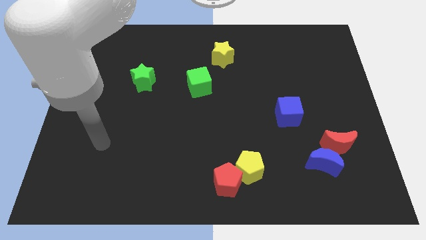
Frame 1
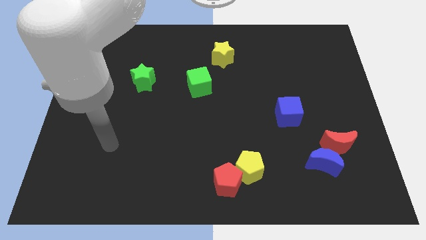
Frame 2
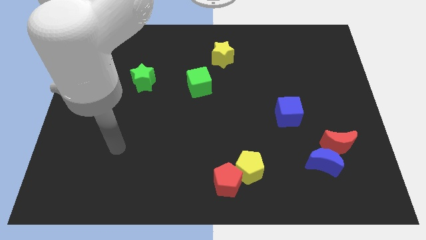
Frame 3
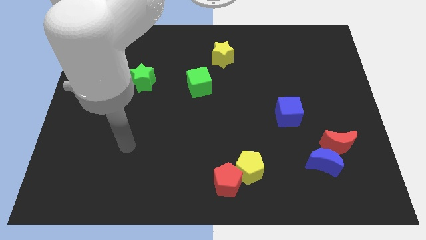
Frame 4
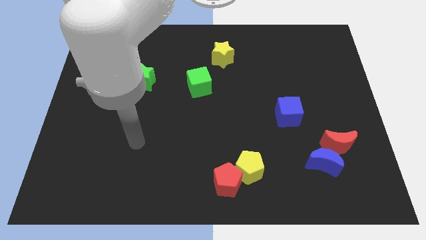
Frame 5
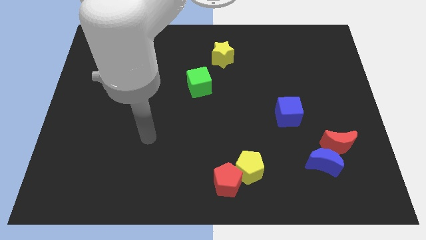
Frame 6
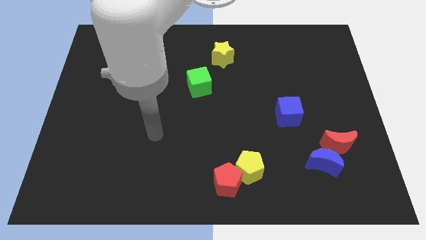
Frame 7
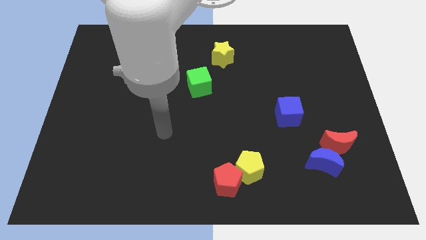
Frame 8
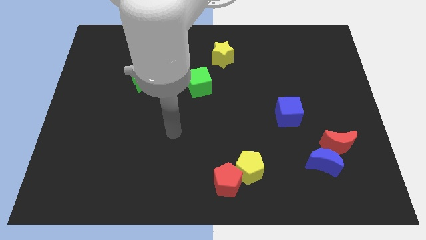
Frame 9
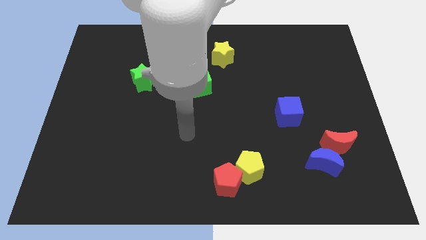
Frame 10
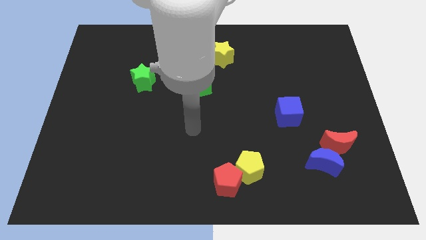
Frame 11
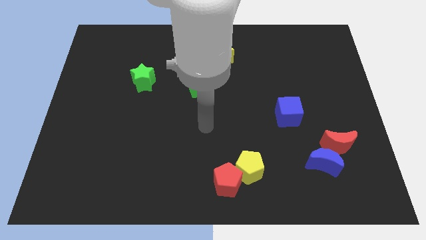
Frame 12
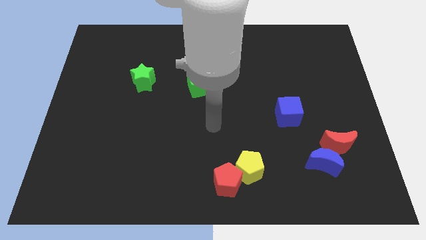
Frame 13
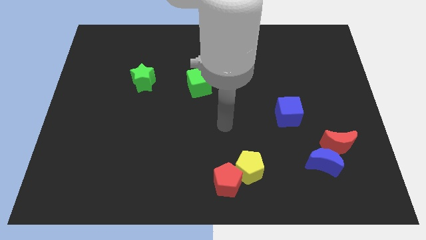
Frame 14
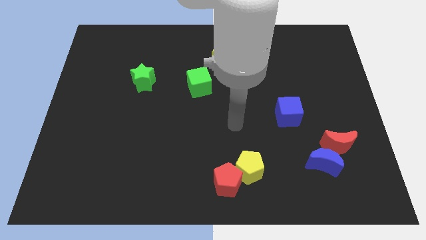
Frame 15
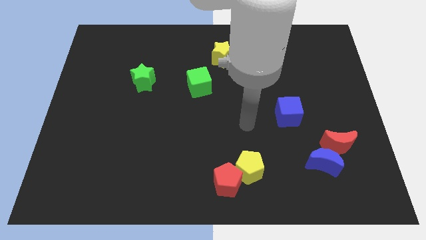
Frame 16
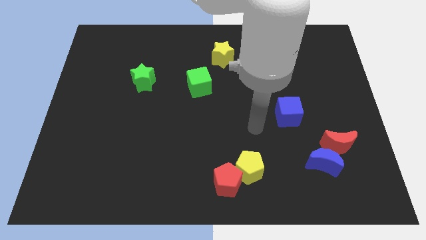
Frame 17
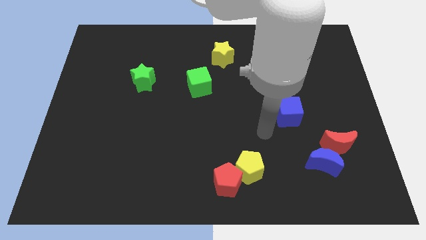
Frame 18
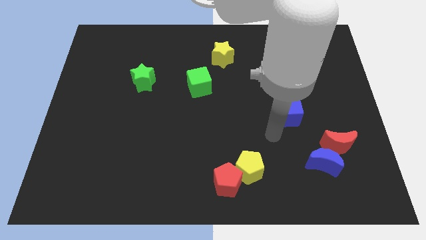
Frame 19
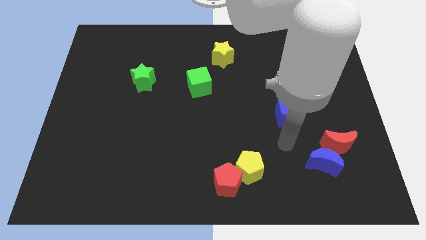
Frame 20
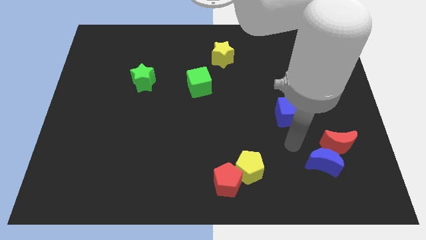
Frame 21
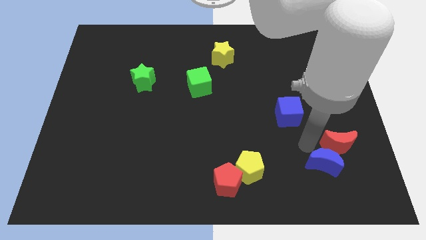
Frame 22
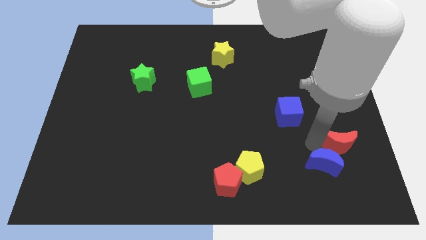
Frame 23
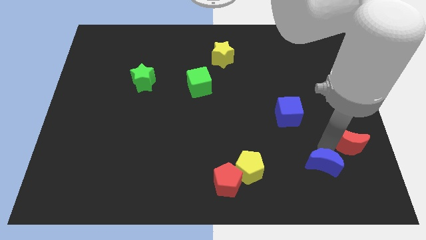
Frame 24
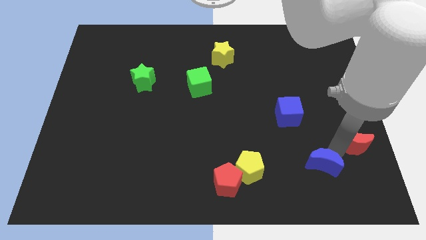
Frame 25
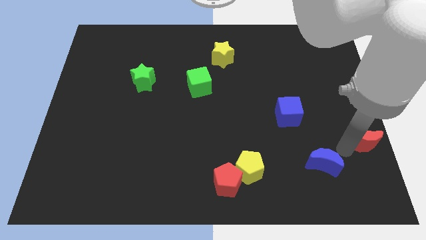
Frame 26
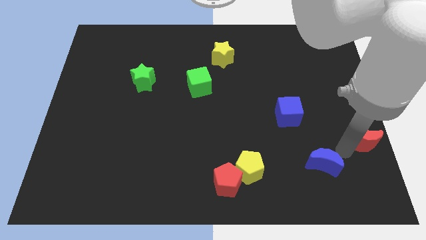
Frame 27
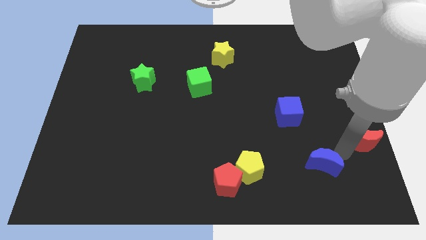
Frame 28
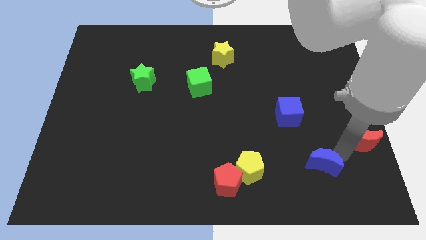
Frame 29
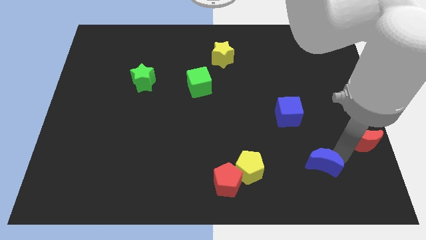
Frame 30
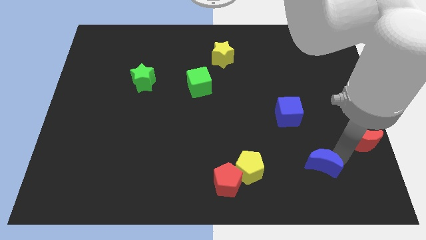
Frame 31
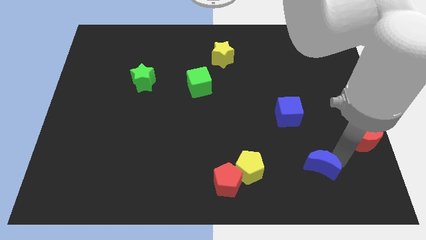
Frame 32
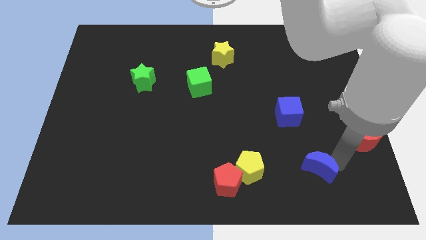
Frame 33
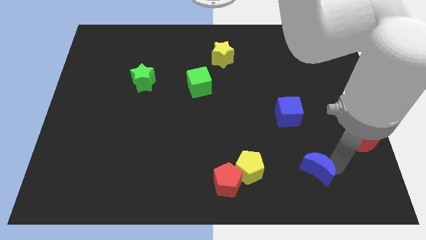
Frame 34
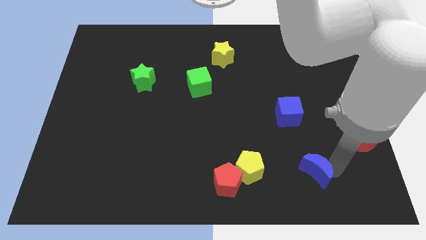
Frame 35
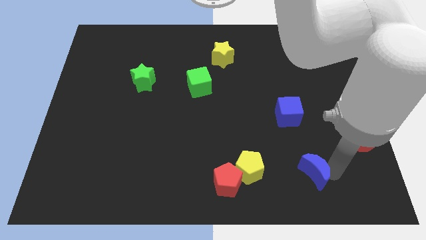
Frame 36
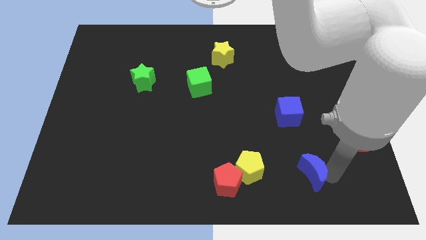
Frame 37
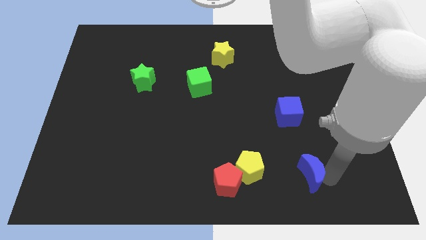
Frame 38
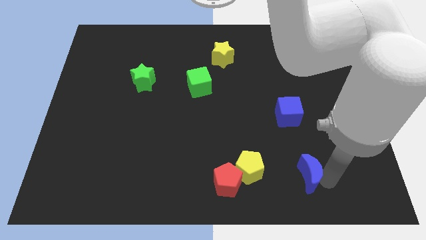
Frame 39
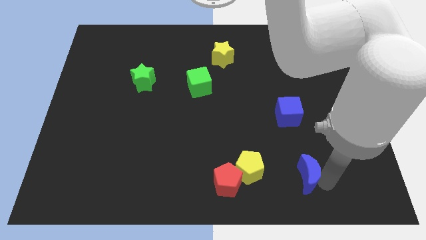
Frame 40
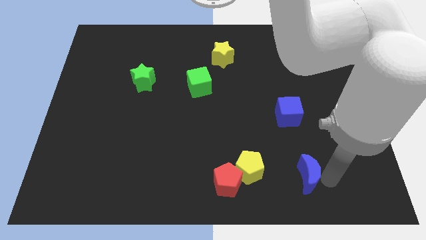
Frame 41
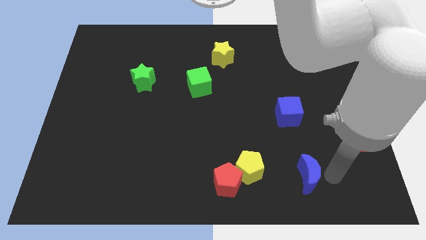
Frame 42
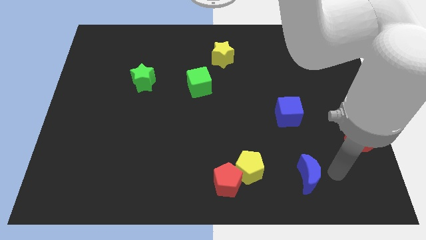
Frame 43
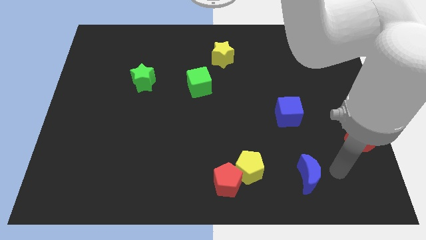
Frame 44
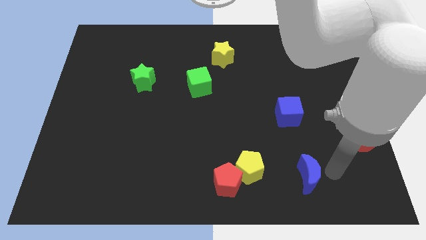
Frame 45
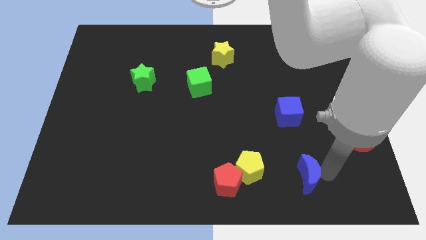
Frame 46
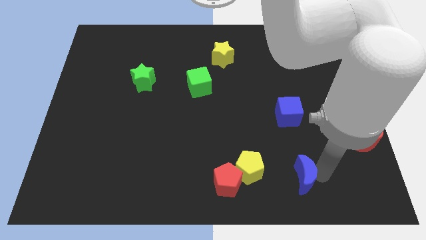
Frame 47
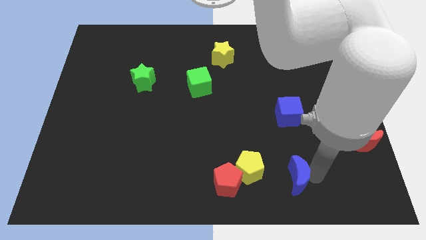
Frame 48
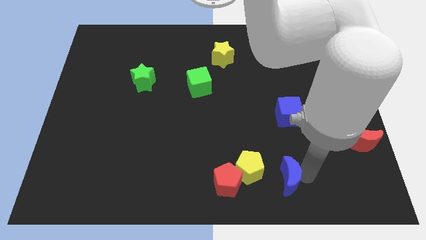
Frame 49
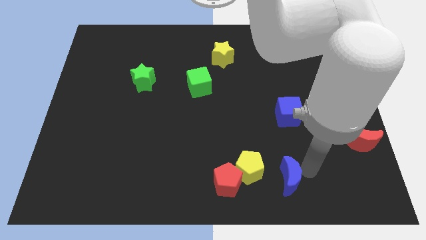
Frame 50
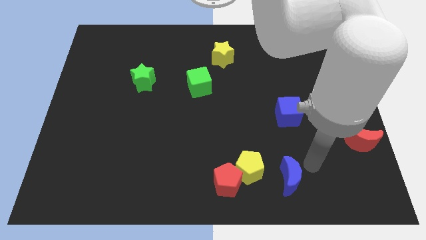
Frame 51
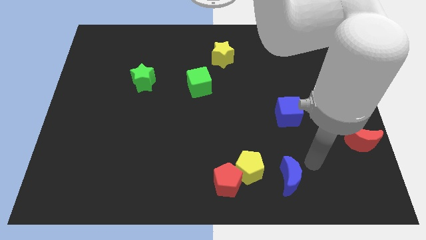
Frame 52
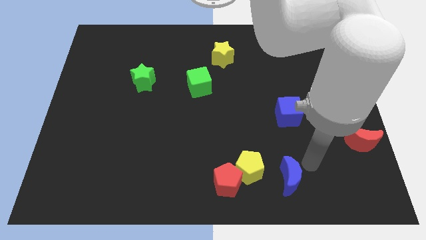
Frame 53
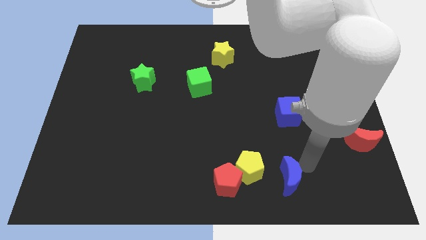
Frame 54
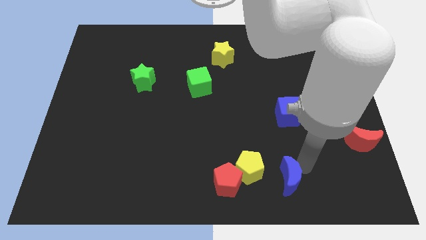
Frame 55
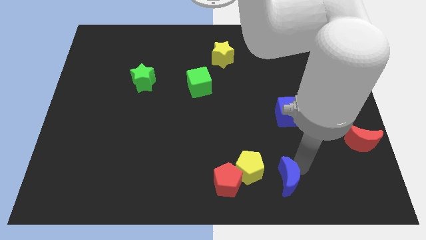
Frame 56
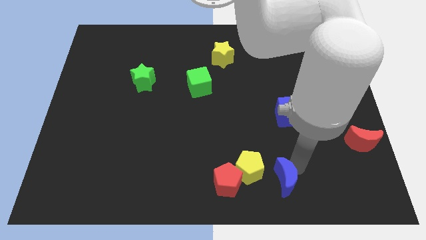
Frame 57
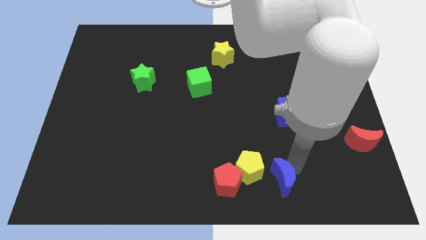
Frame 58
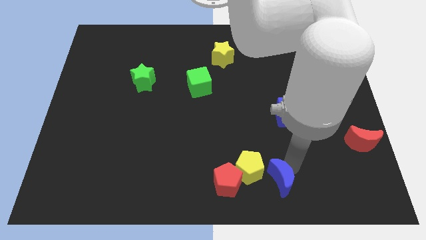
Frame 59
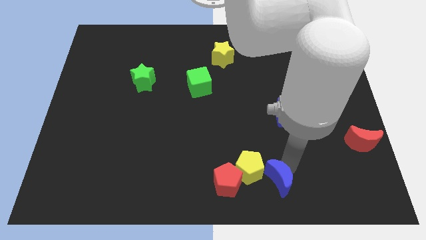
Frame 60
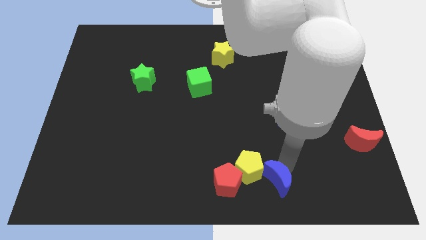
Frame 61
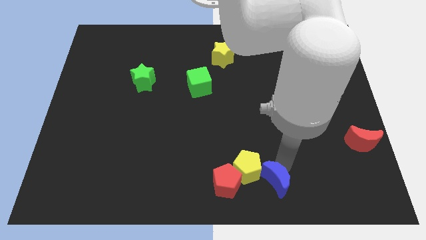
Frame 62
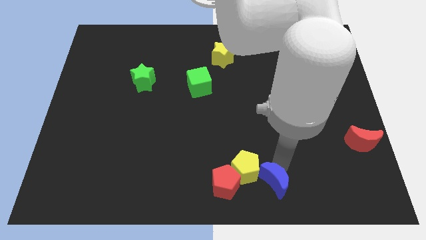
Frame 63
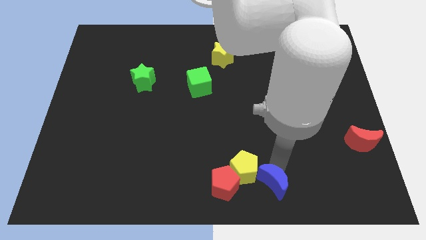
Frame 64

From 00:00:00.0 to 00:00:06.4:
put the blue moon to the bottom side
